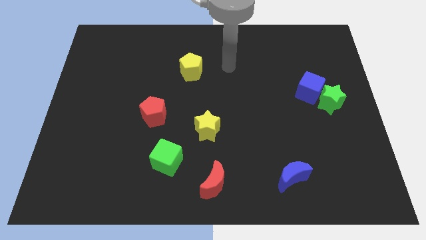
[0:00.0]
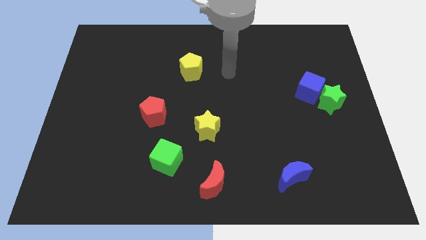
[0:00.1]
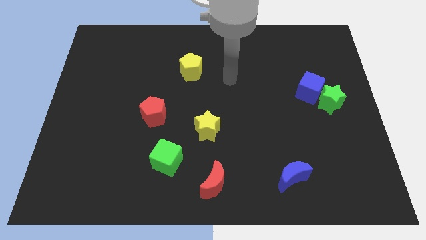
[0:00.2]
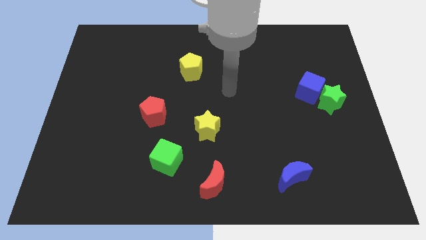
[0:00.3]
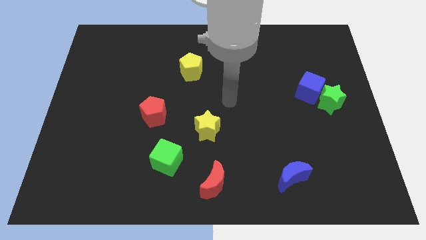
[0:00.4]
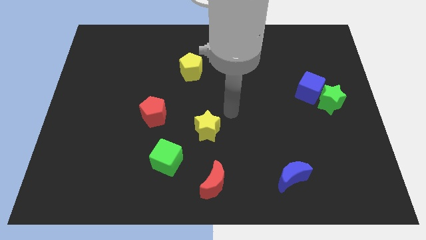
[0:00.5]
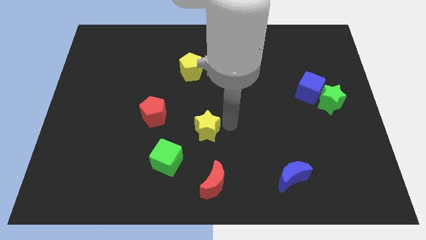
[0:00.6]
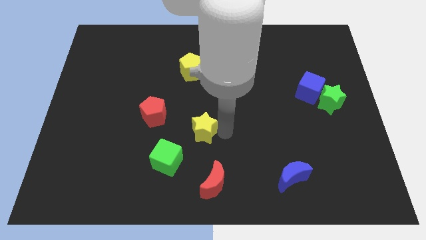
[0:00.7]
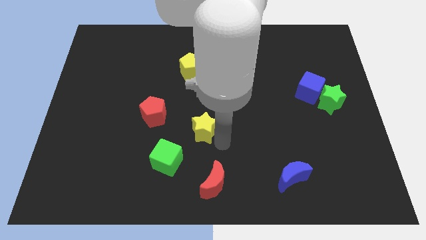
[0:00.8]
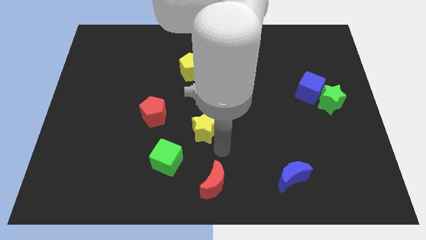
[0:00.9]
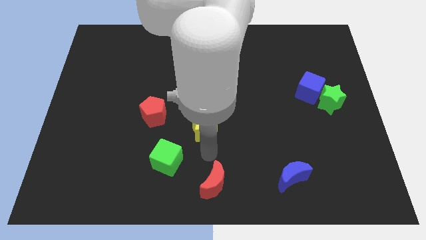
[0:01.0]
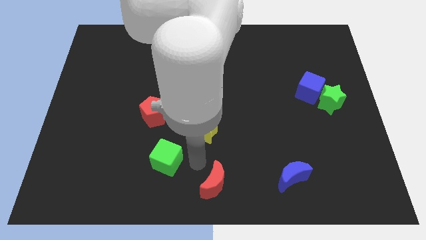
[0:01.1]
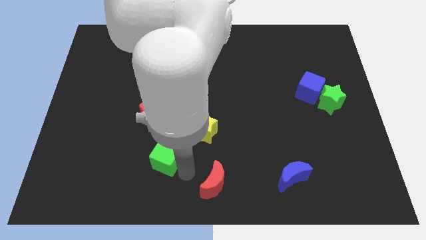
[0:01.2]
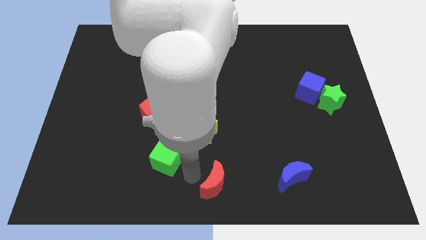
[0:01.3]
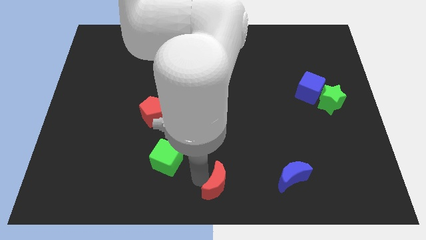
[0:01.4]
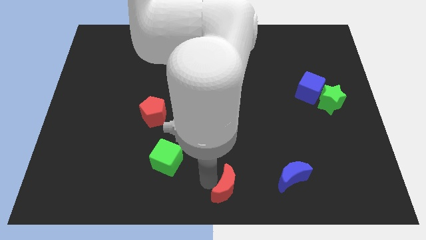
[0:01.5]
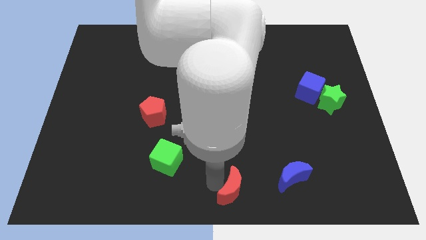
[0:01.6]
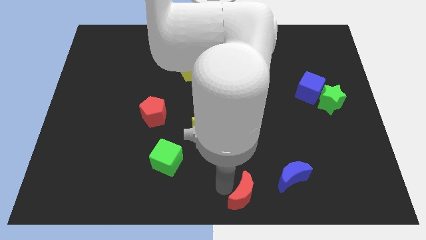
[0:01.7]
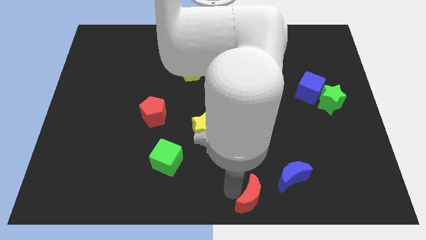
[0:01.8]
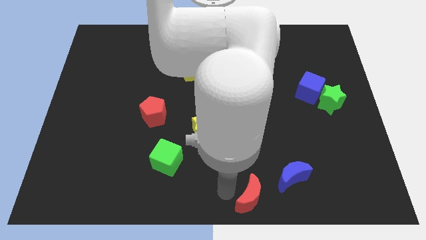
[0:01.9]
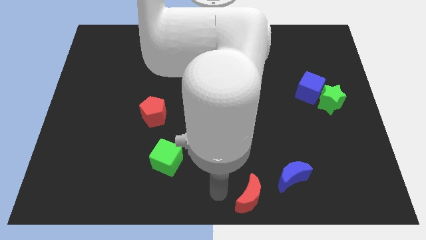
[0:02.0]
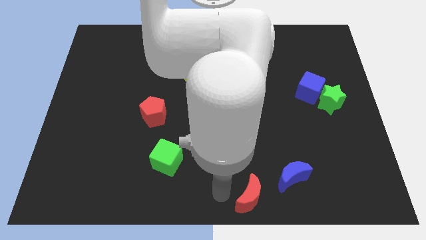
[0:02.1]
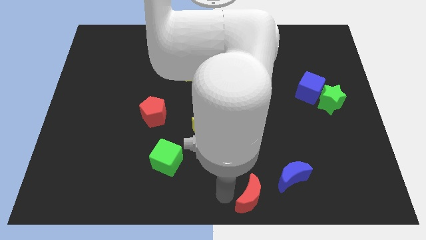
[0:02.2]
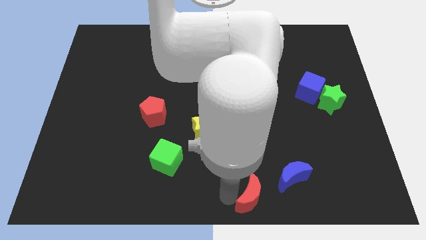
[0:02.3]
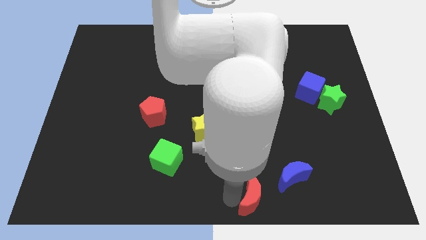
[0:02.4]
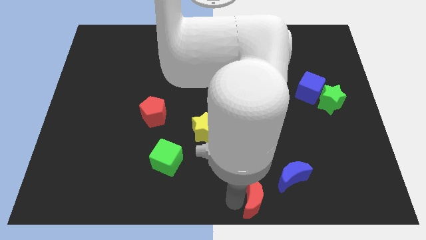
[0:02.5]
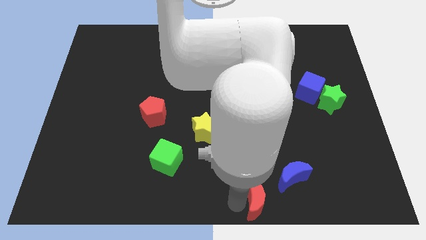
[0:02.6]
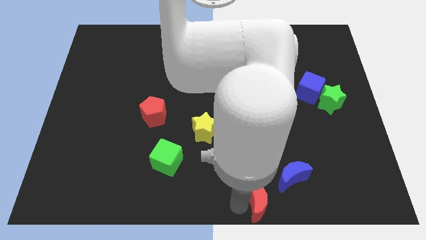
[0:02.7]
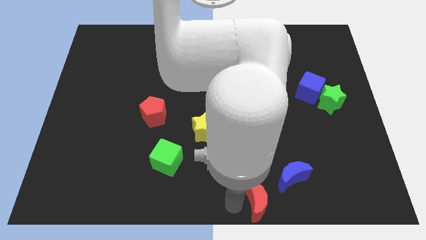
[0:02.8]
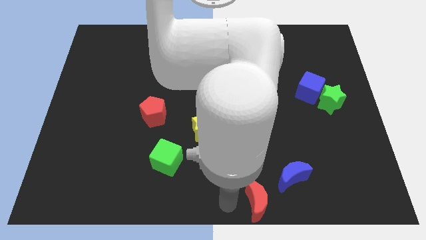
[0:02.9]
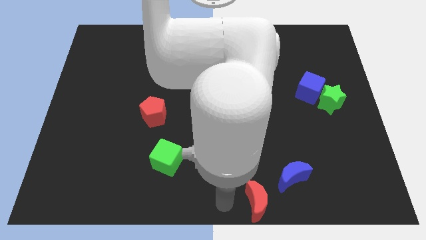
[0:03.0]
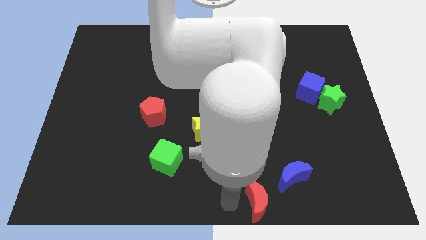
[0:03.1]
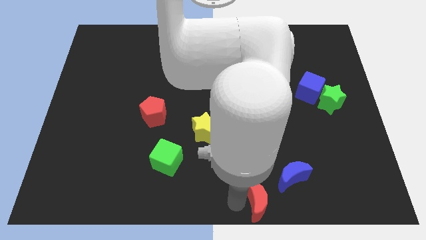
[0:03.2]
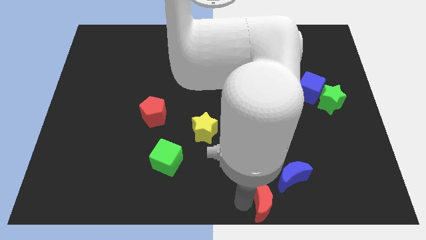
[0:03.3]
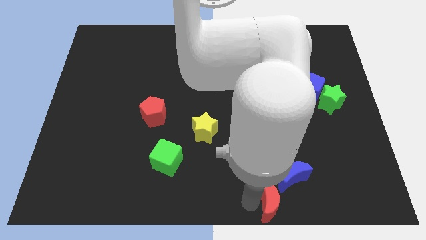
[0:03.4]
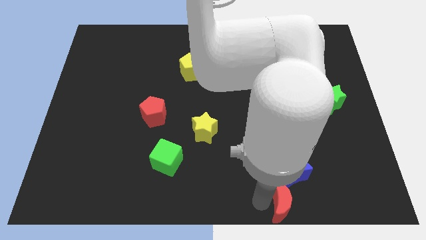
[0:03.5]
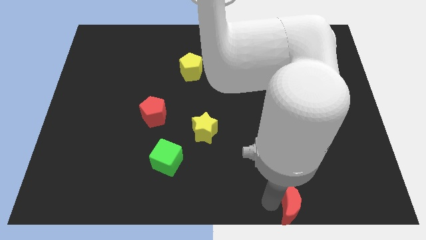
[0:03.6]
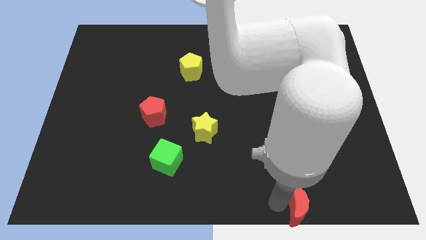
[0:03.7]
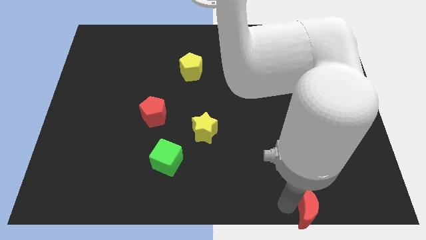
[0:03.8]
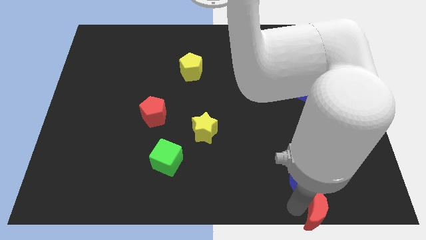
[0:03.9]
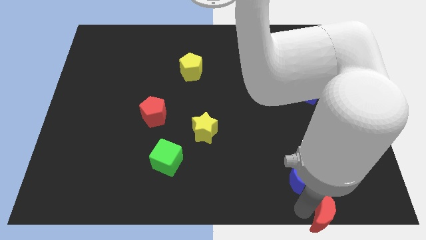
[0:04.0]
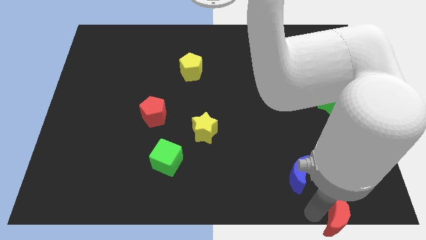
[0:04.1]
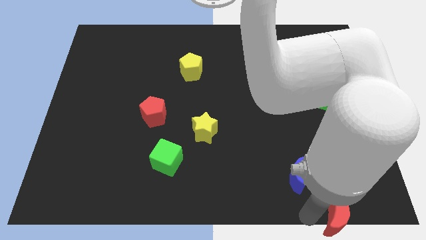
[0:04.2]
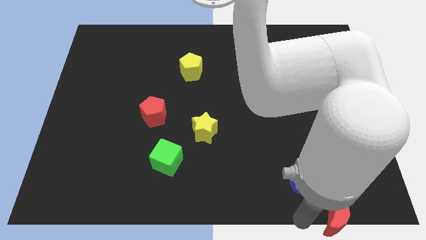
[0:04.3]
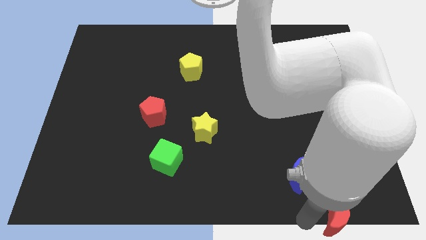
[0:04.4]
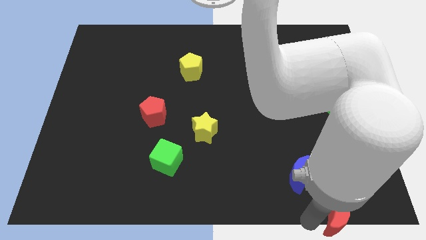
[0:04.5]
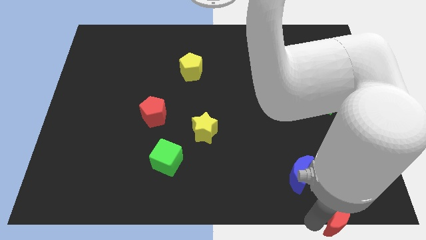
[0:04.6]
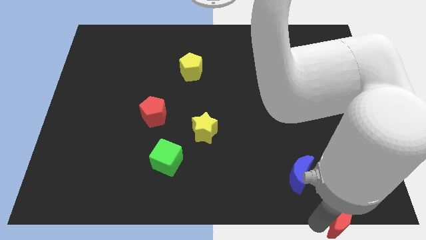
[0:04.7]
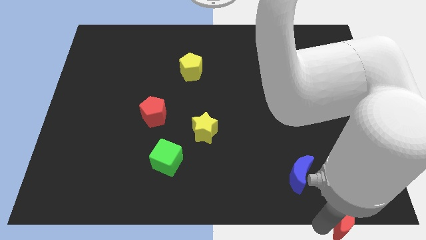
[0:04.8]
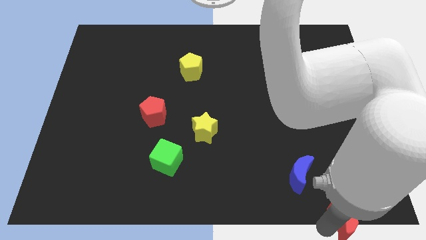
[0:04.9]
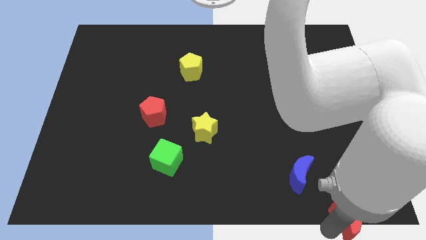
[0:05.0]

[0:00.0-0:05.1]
put the red moon to the bottom right corner

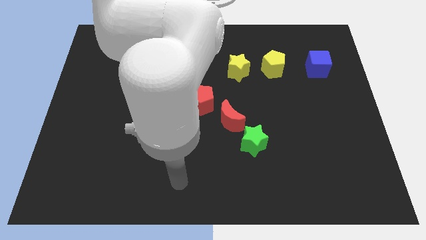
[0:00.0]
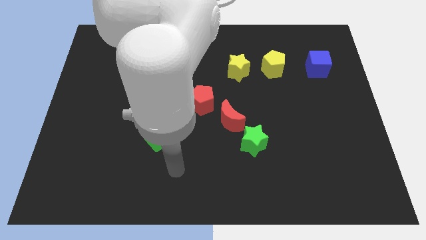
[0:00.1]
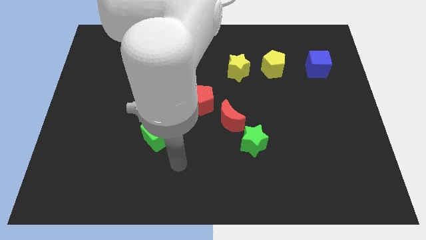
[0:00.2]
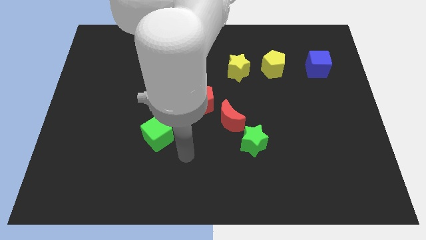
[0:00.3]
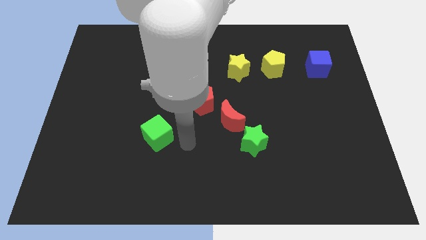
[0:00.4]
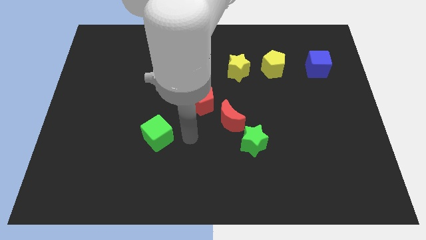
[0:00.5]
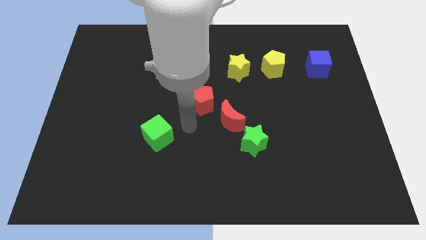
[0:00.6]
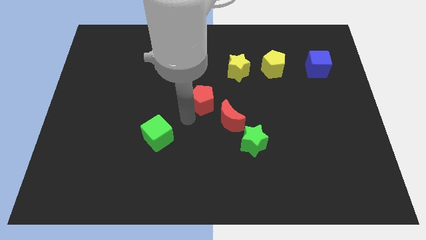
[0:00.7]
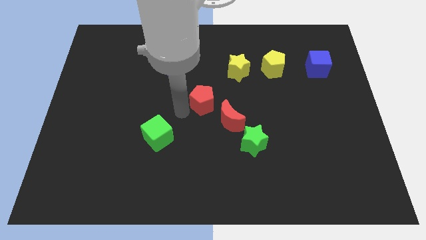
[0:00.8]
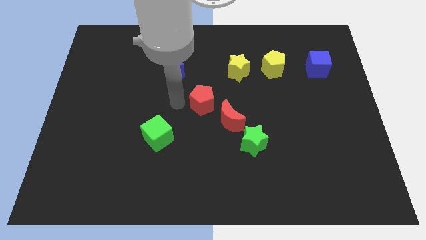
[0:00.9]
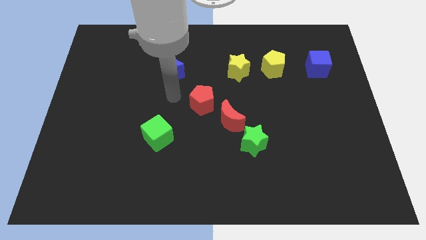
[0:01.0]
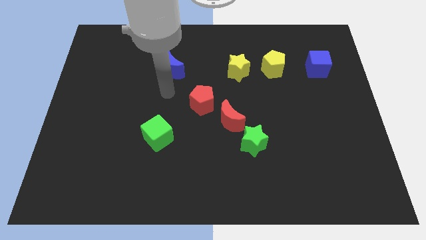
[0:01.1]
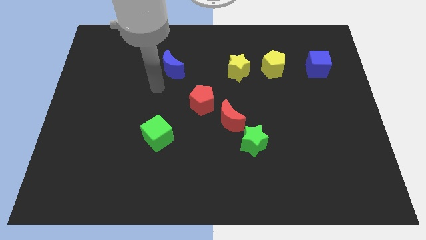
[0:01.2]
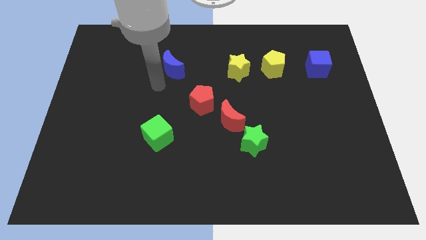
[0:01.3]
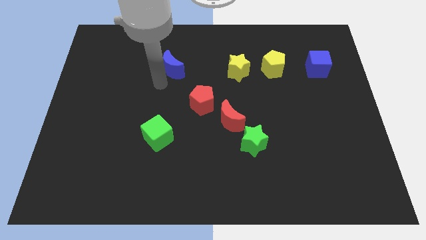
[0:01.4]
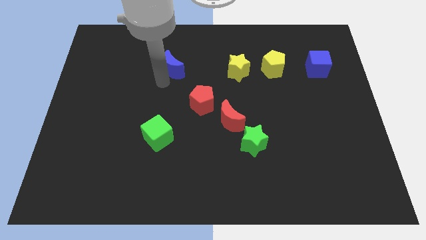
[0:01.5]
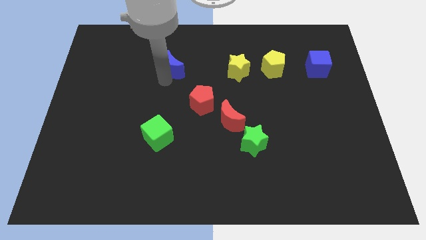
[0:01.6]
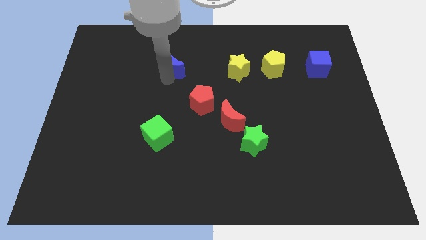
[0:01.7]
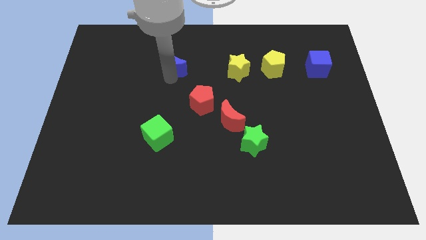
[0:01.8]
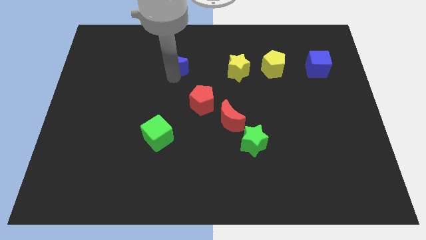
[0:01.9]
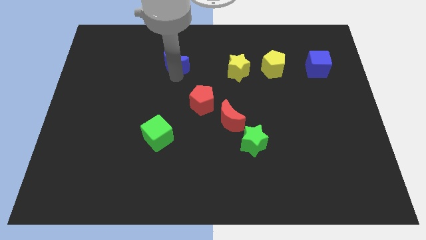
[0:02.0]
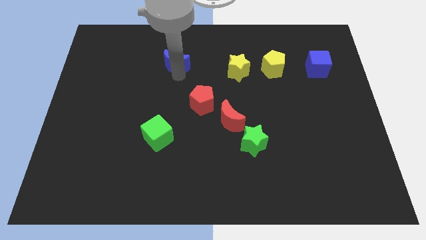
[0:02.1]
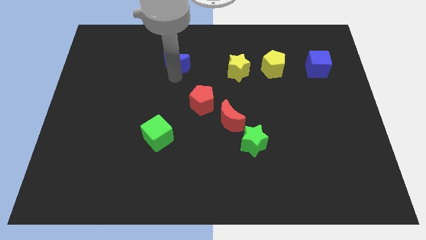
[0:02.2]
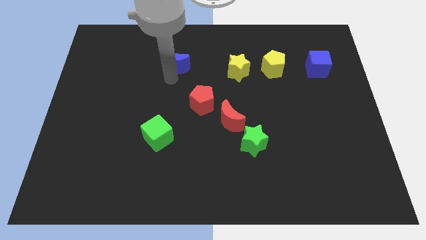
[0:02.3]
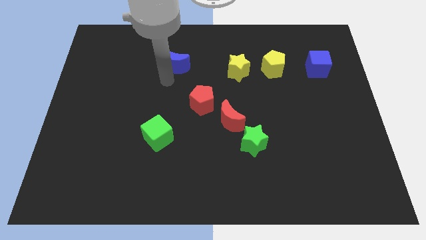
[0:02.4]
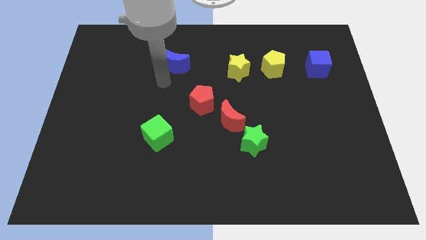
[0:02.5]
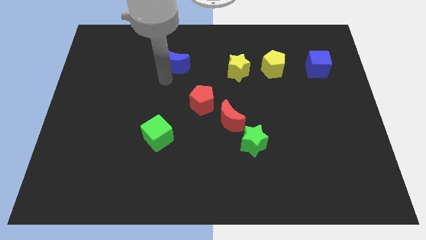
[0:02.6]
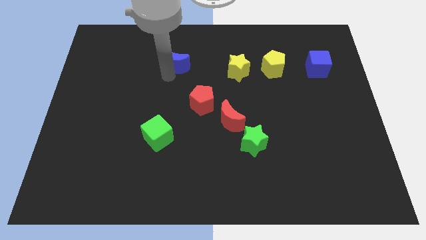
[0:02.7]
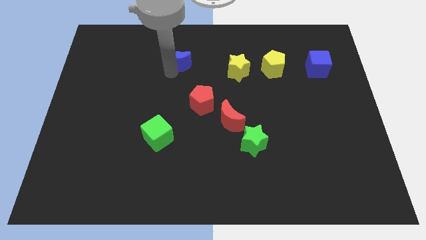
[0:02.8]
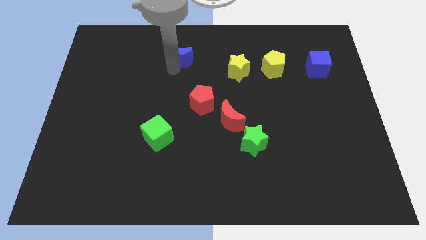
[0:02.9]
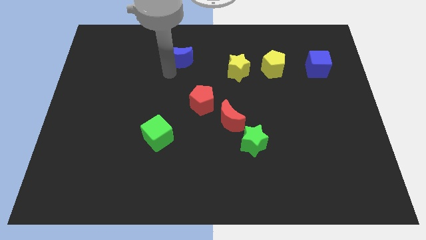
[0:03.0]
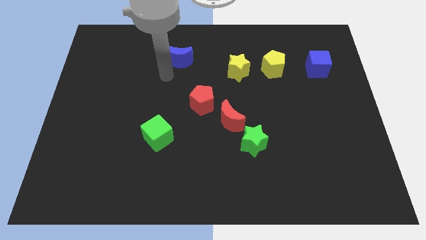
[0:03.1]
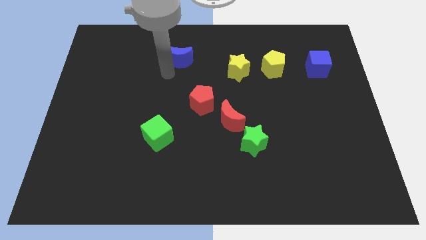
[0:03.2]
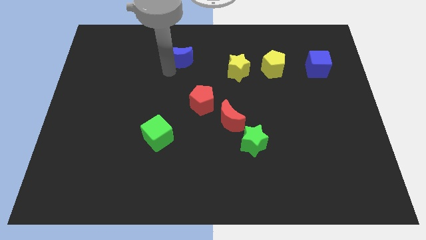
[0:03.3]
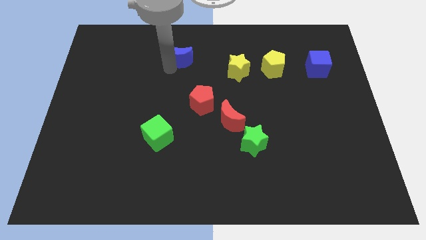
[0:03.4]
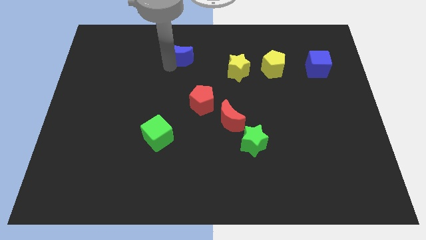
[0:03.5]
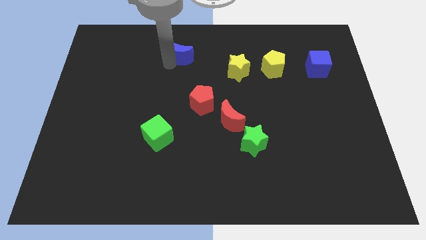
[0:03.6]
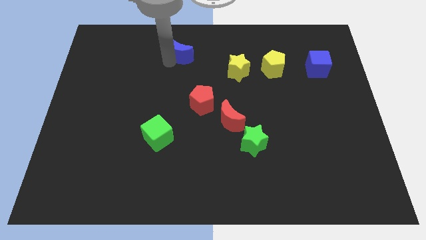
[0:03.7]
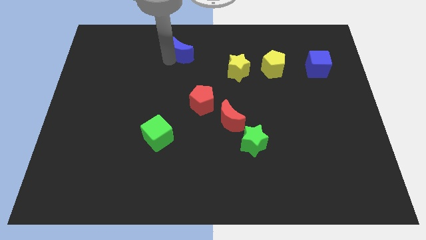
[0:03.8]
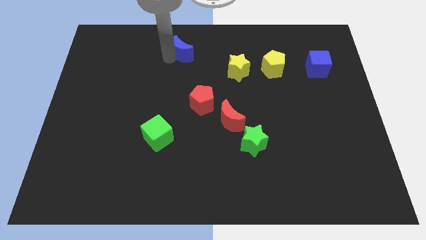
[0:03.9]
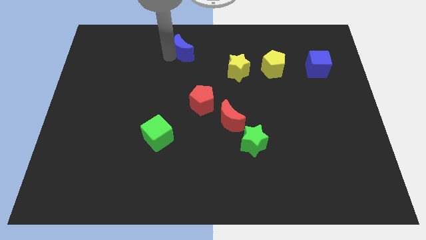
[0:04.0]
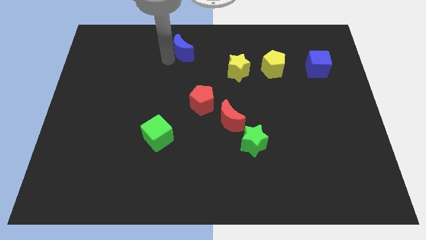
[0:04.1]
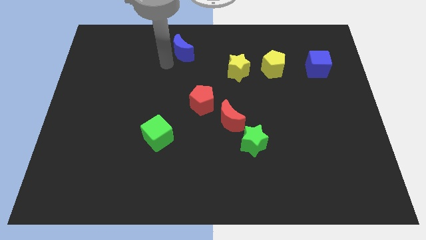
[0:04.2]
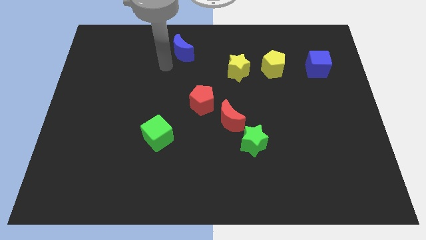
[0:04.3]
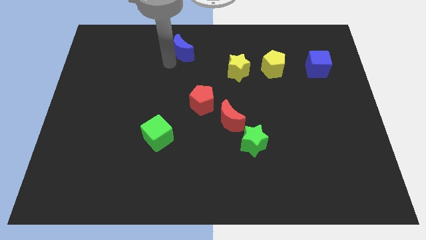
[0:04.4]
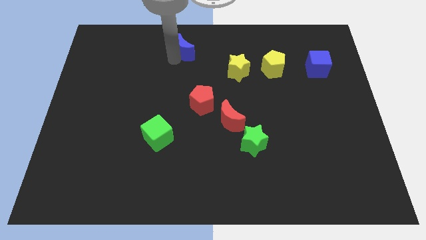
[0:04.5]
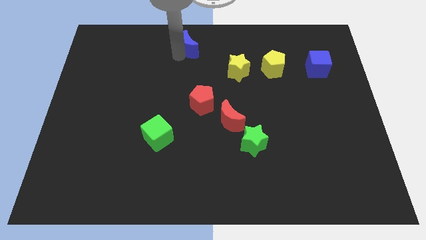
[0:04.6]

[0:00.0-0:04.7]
move the blue moon to the top side
